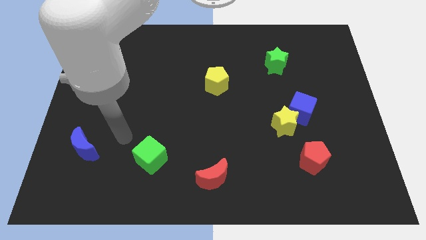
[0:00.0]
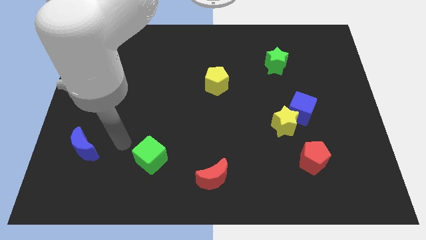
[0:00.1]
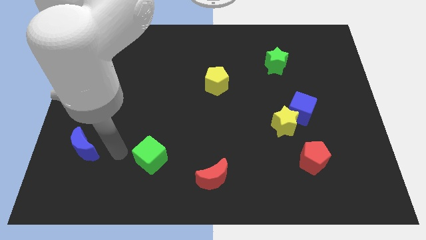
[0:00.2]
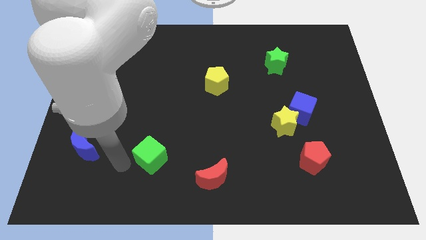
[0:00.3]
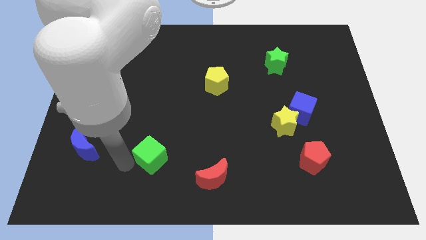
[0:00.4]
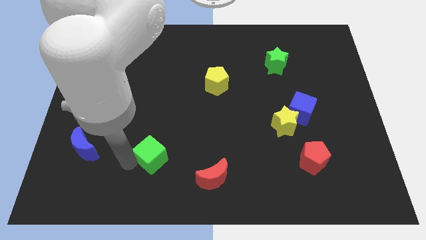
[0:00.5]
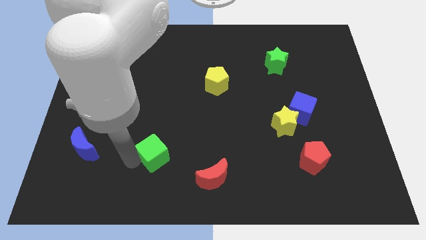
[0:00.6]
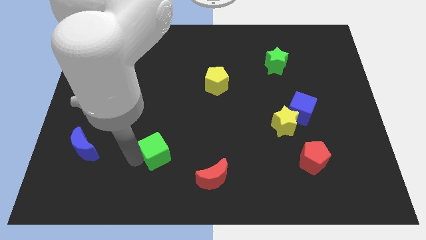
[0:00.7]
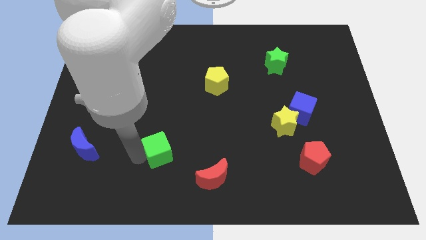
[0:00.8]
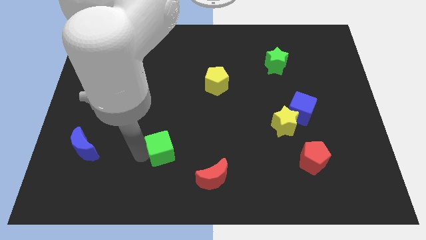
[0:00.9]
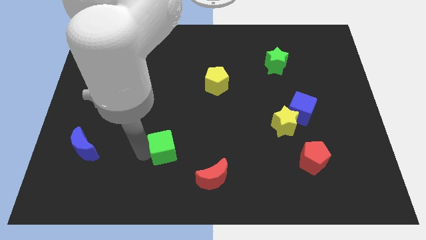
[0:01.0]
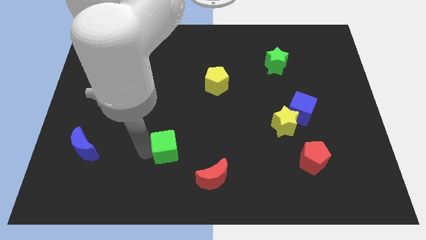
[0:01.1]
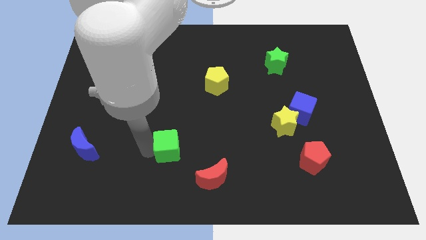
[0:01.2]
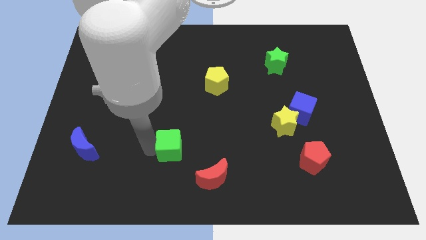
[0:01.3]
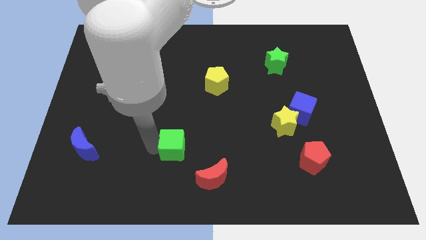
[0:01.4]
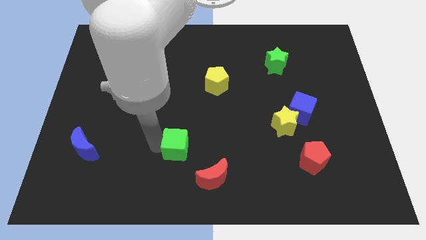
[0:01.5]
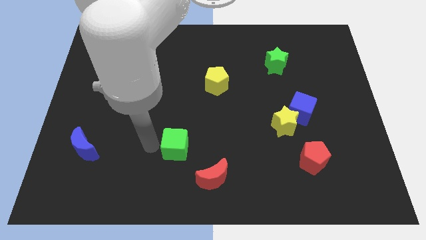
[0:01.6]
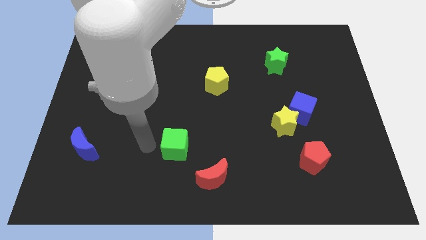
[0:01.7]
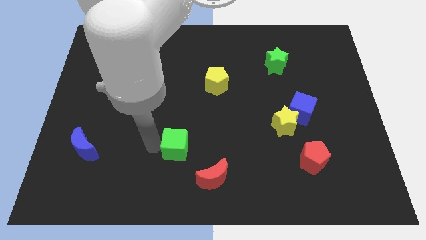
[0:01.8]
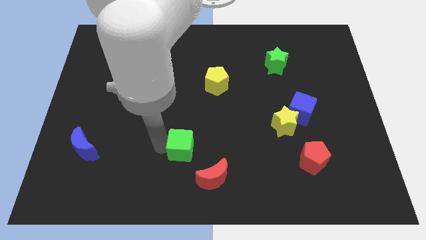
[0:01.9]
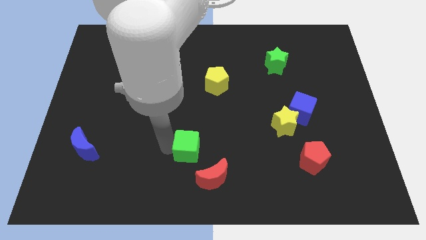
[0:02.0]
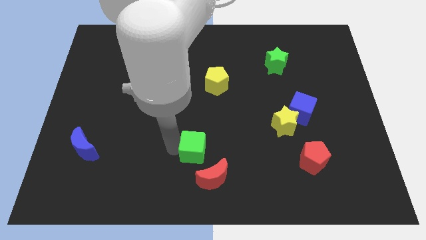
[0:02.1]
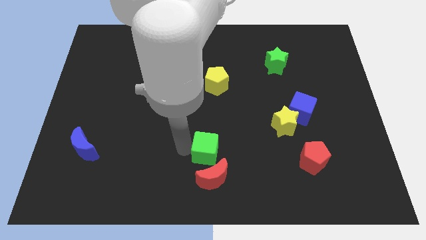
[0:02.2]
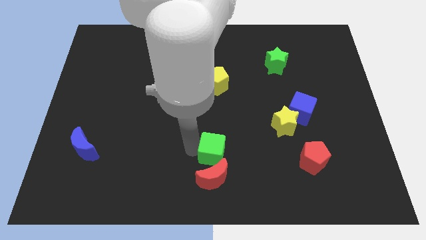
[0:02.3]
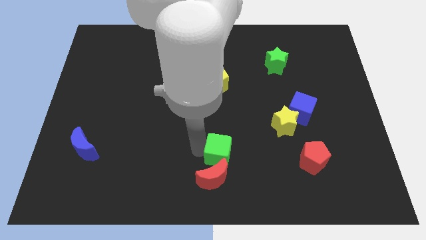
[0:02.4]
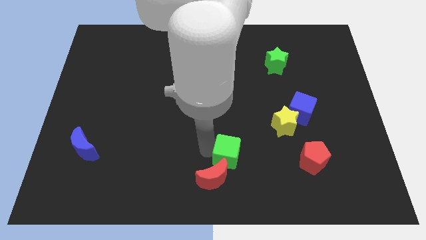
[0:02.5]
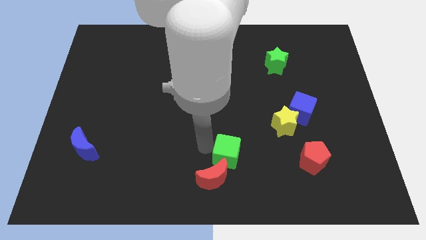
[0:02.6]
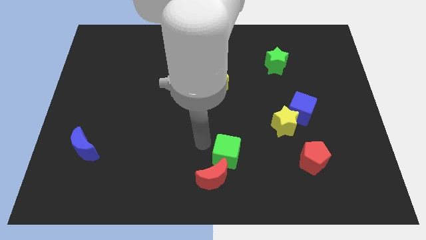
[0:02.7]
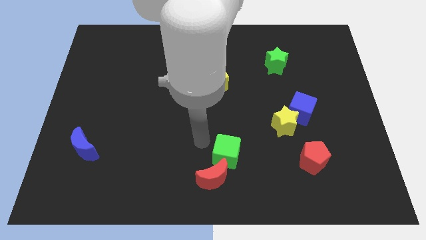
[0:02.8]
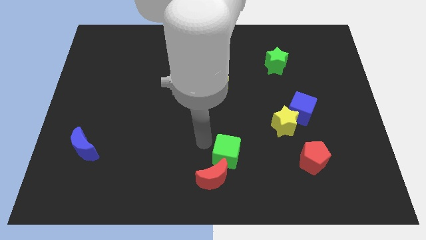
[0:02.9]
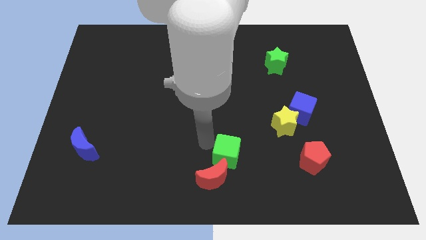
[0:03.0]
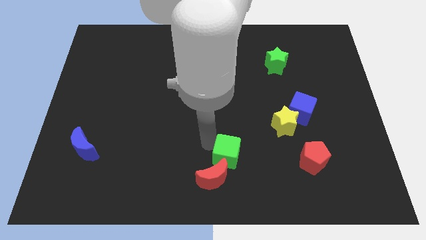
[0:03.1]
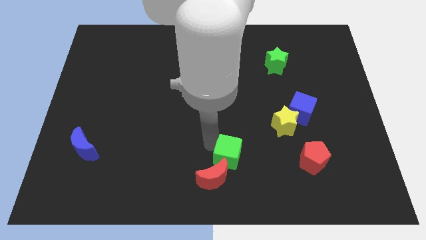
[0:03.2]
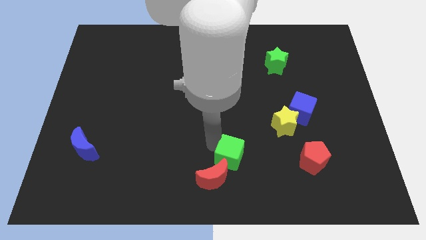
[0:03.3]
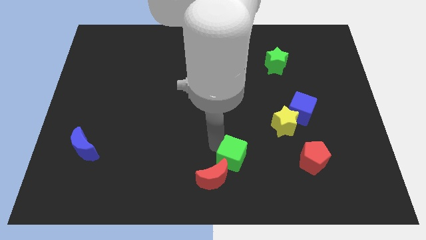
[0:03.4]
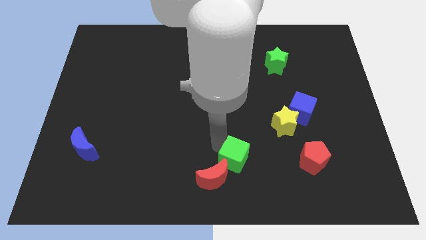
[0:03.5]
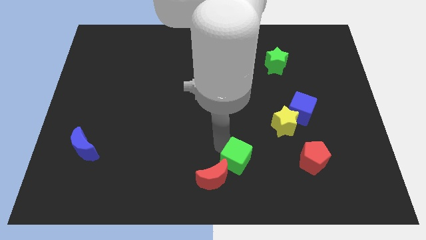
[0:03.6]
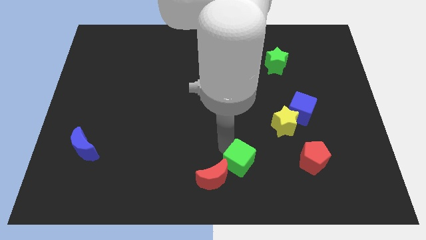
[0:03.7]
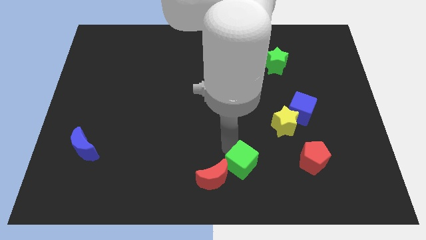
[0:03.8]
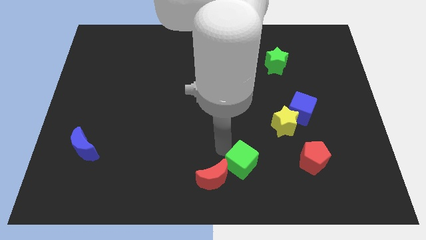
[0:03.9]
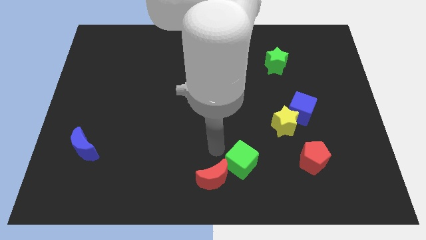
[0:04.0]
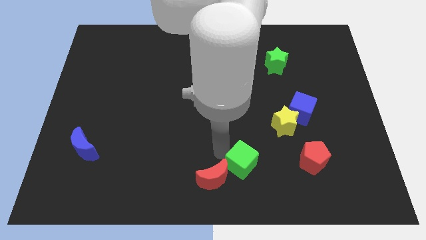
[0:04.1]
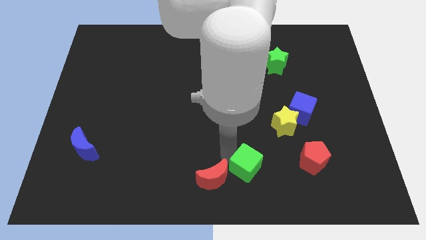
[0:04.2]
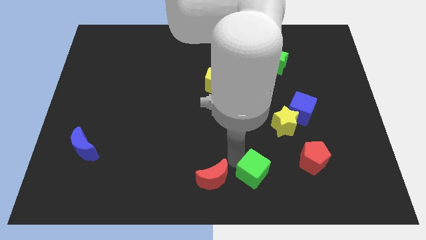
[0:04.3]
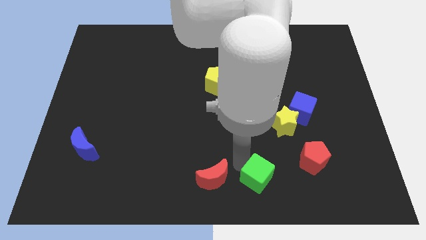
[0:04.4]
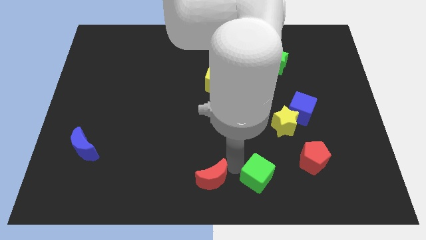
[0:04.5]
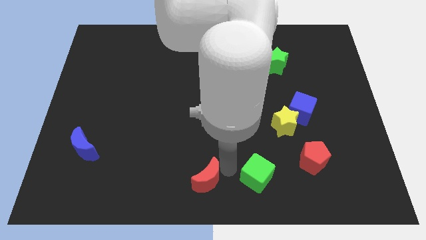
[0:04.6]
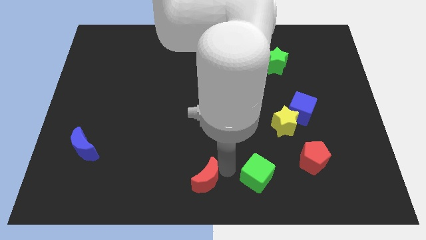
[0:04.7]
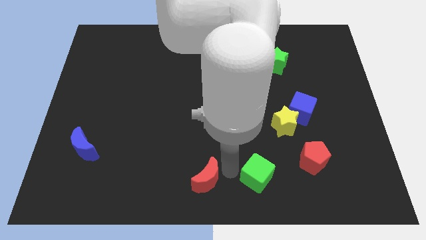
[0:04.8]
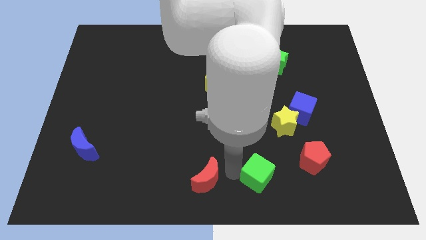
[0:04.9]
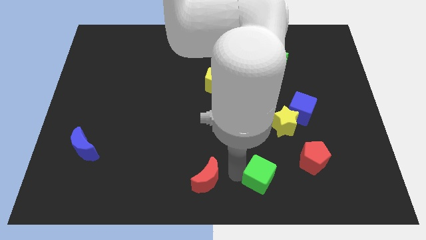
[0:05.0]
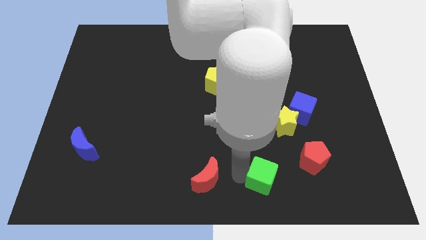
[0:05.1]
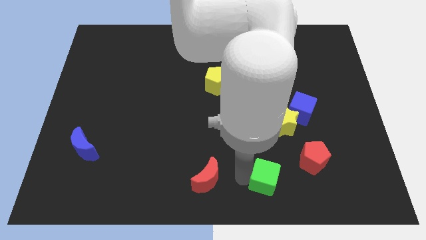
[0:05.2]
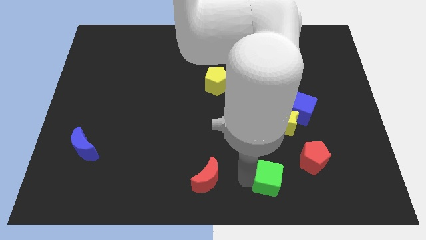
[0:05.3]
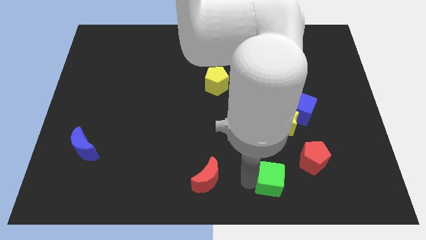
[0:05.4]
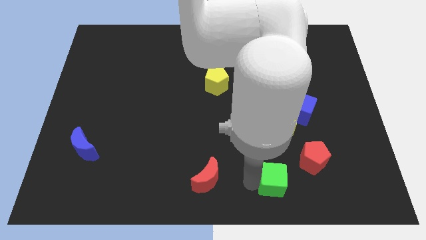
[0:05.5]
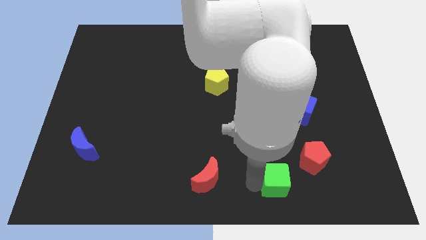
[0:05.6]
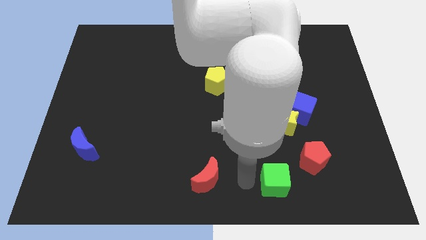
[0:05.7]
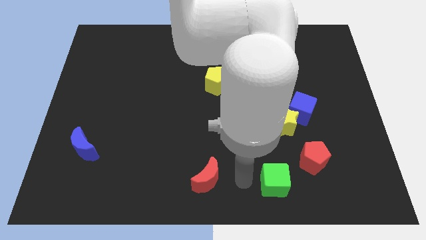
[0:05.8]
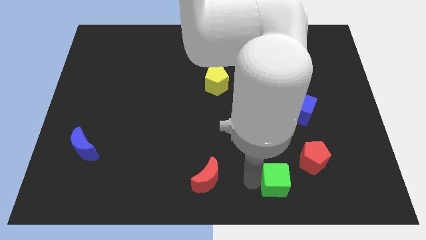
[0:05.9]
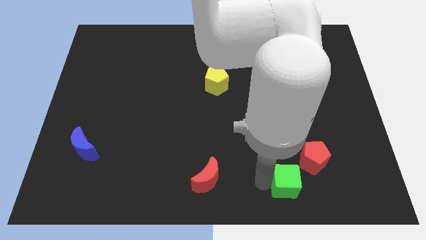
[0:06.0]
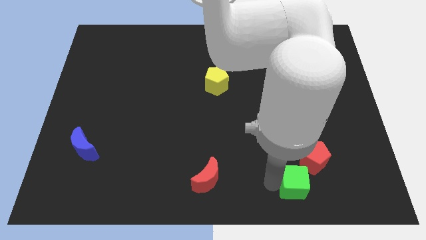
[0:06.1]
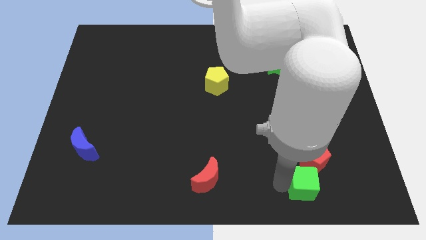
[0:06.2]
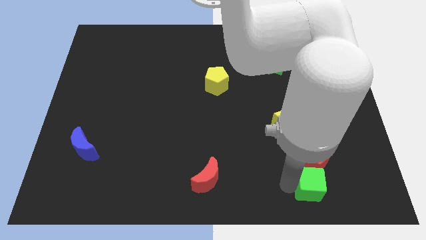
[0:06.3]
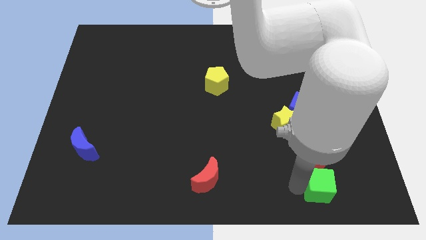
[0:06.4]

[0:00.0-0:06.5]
move the green cube to the bottom right side of the red pentagon

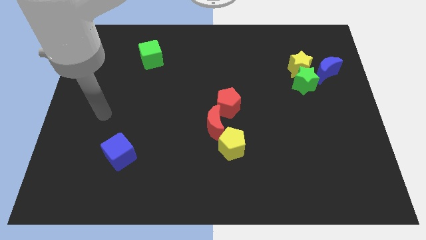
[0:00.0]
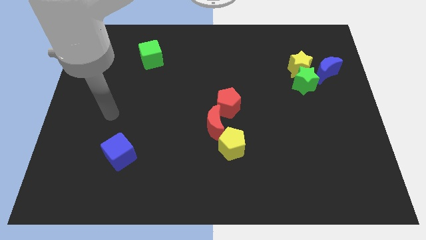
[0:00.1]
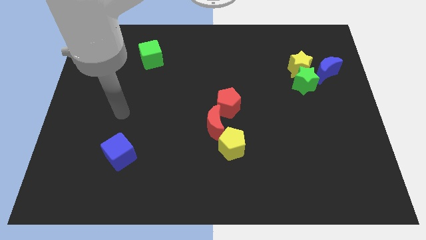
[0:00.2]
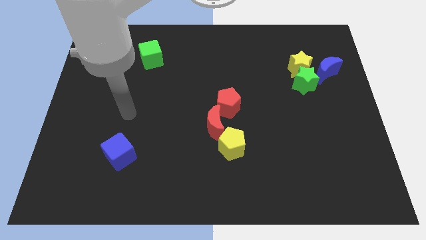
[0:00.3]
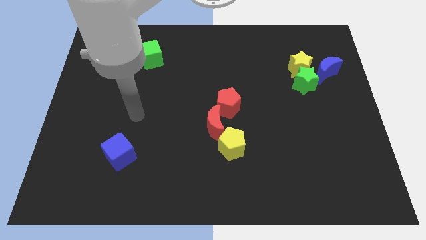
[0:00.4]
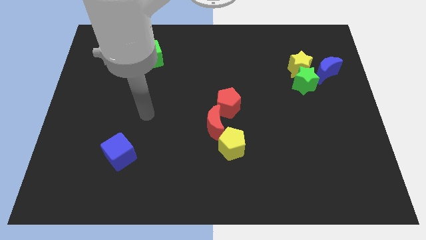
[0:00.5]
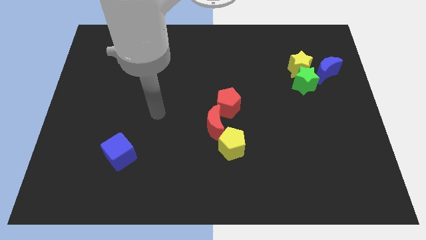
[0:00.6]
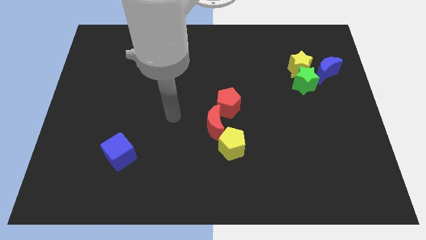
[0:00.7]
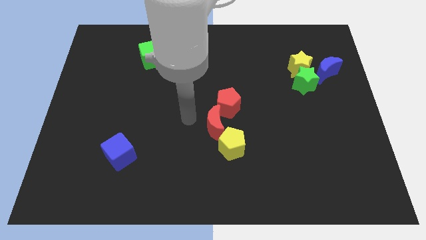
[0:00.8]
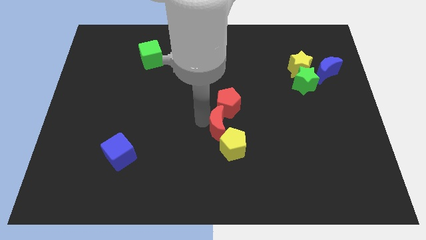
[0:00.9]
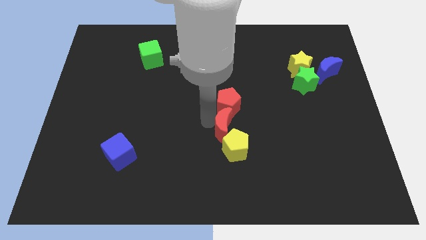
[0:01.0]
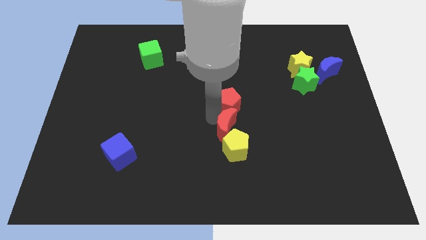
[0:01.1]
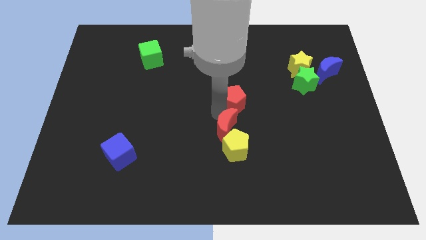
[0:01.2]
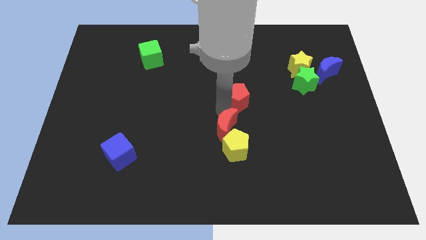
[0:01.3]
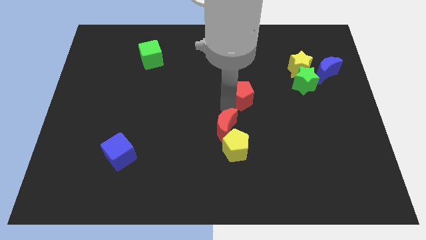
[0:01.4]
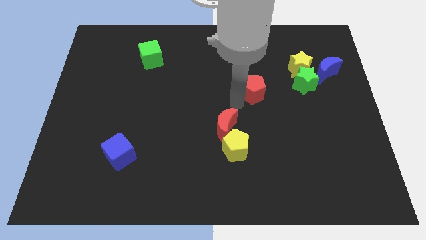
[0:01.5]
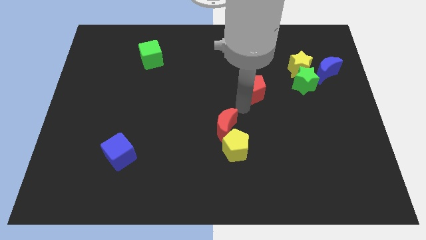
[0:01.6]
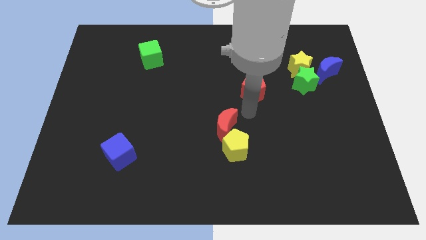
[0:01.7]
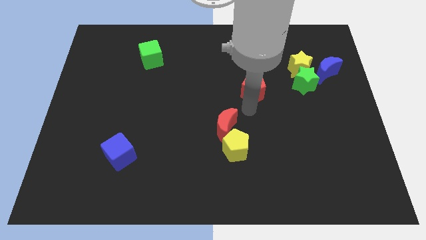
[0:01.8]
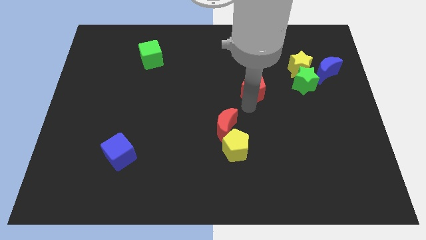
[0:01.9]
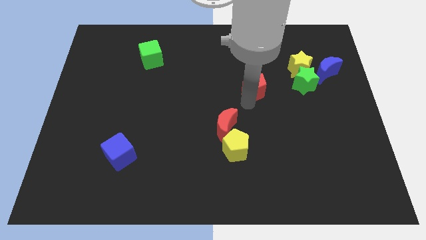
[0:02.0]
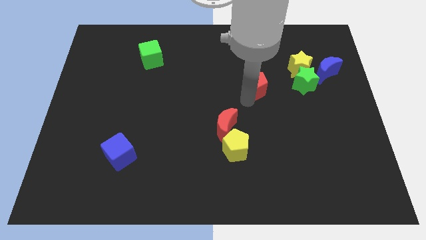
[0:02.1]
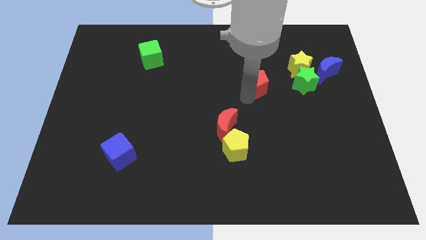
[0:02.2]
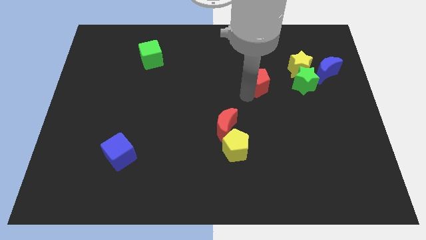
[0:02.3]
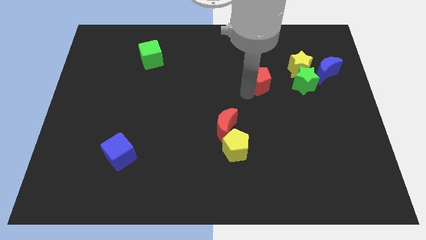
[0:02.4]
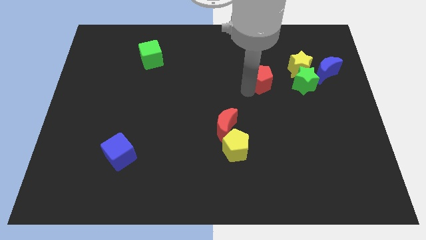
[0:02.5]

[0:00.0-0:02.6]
slide the red pentagon left of the yellow star
